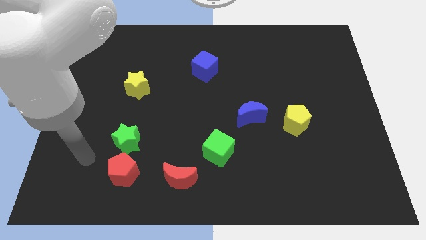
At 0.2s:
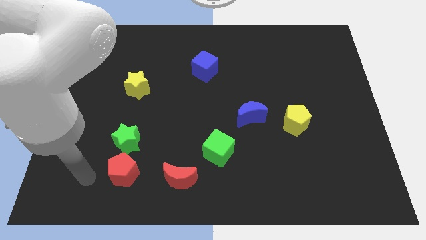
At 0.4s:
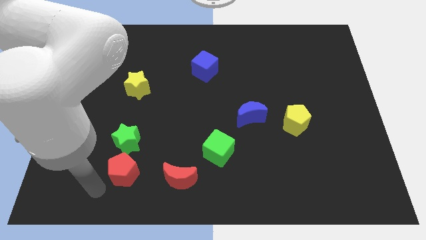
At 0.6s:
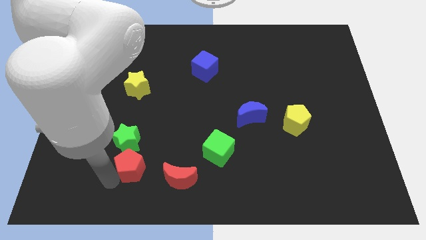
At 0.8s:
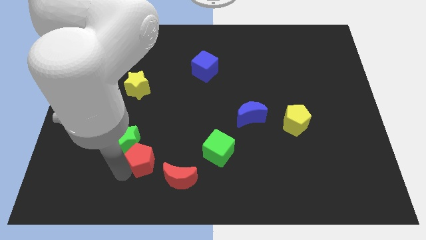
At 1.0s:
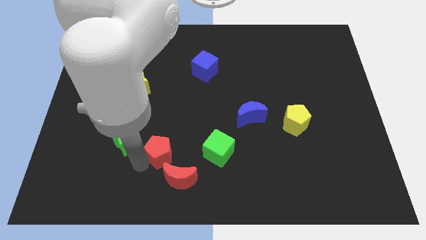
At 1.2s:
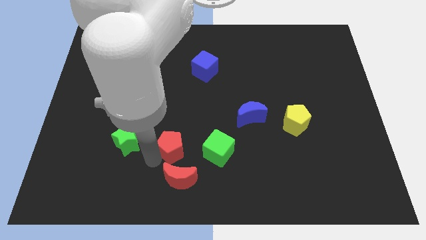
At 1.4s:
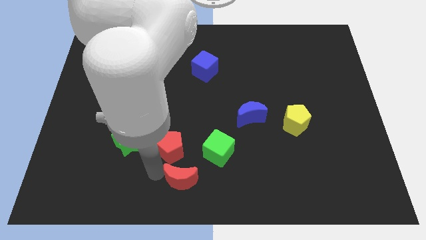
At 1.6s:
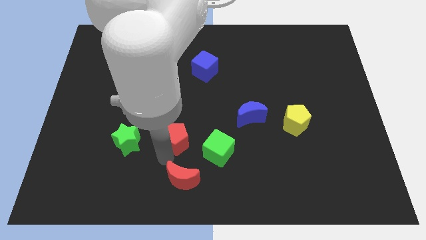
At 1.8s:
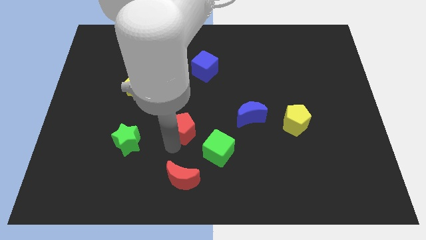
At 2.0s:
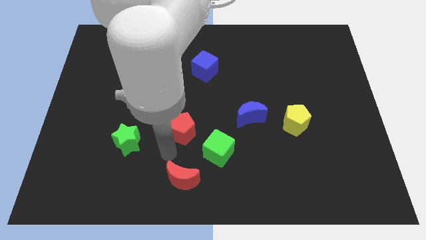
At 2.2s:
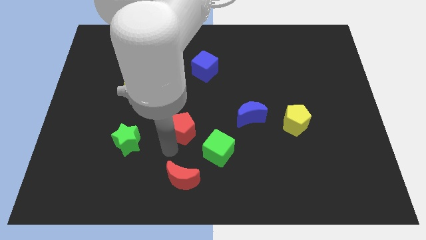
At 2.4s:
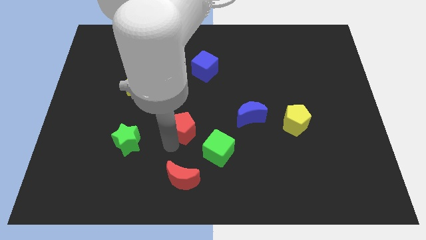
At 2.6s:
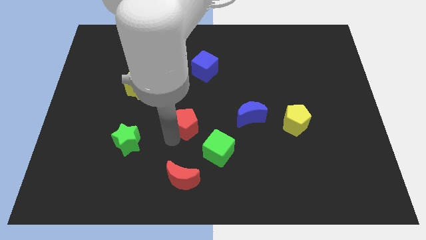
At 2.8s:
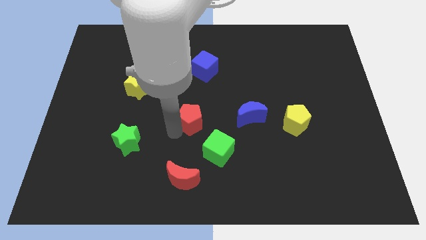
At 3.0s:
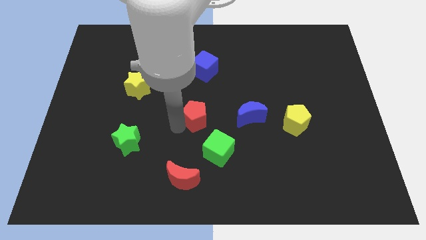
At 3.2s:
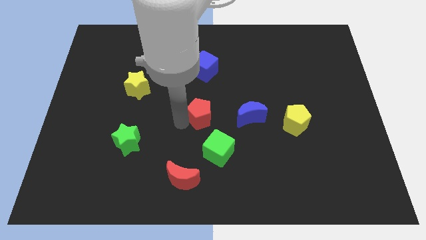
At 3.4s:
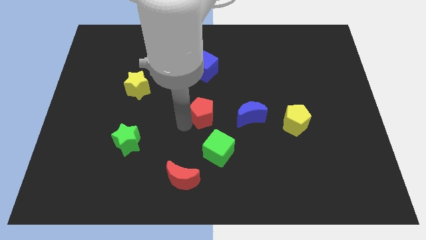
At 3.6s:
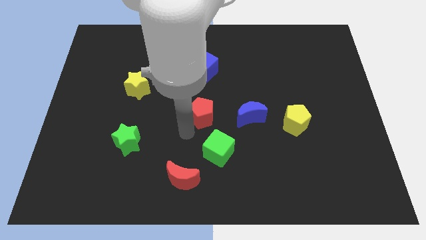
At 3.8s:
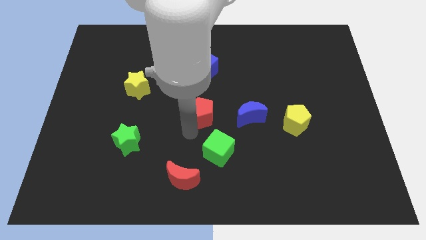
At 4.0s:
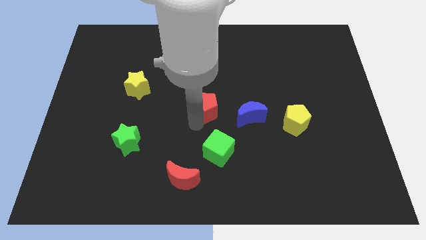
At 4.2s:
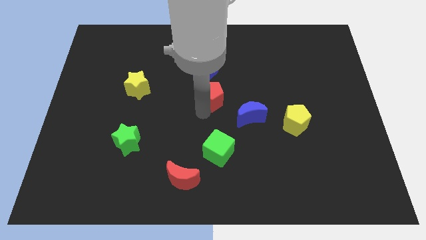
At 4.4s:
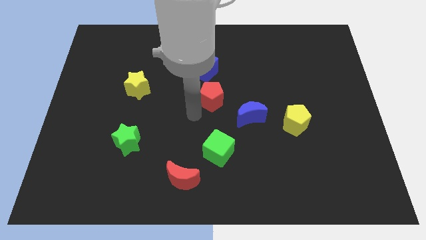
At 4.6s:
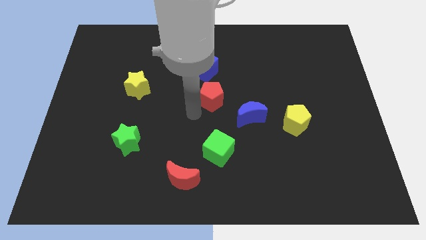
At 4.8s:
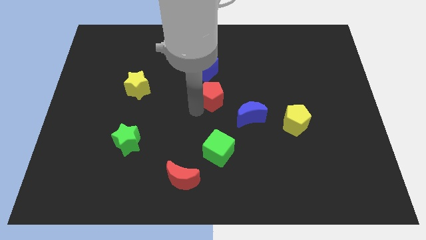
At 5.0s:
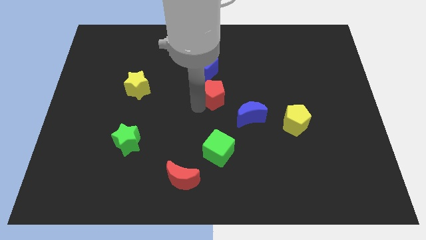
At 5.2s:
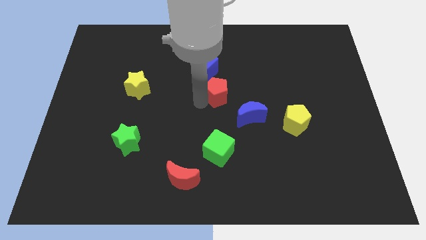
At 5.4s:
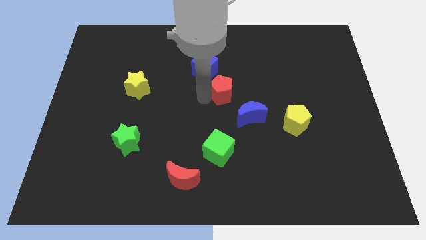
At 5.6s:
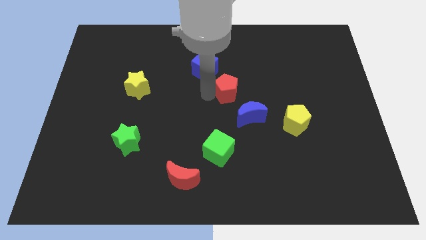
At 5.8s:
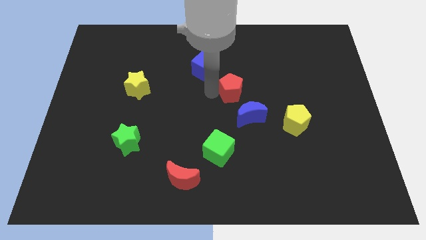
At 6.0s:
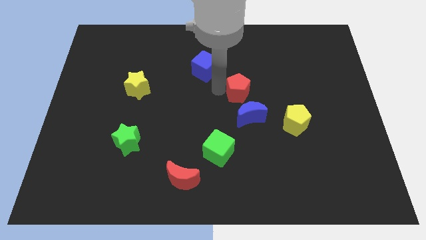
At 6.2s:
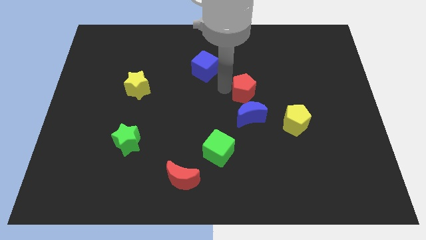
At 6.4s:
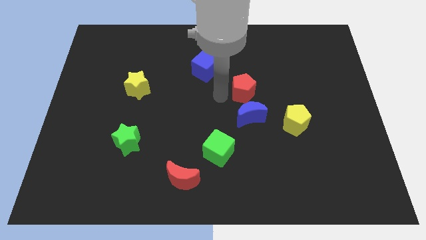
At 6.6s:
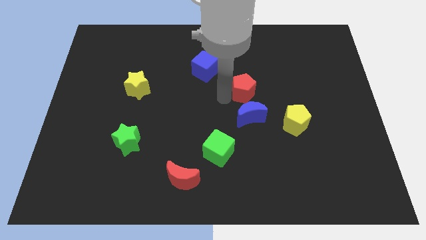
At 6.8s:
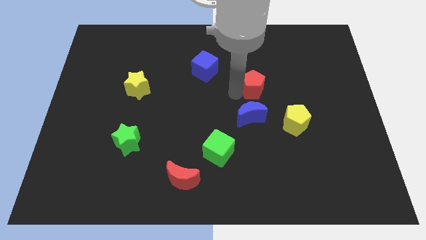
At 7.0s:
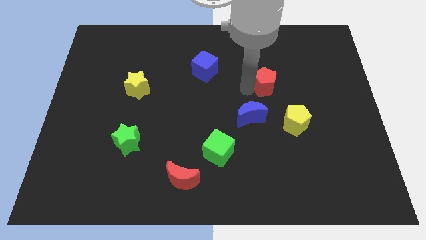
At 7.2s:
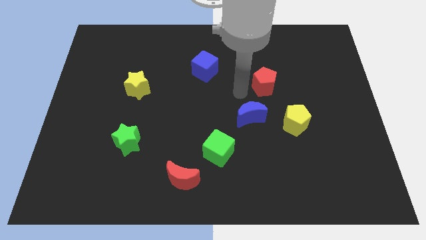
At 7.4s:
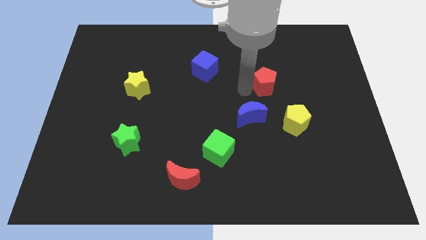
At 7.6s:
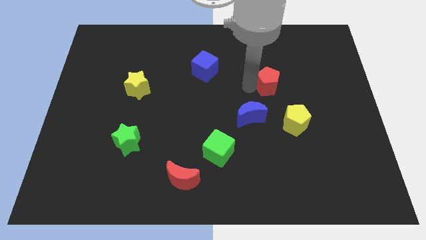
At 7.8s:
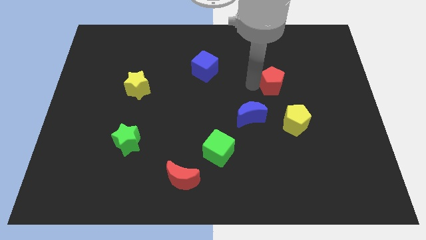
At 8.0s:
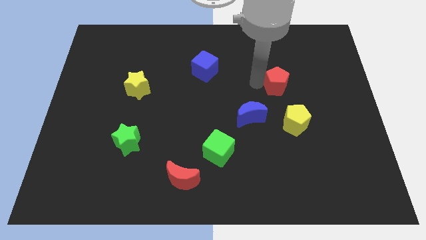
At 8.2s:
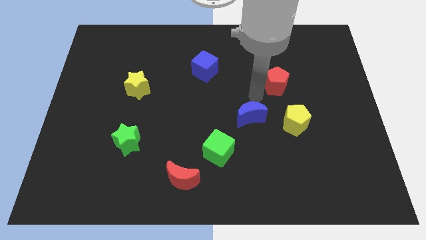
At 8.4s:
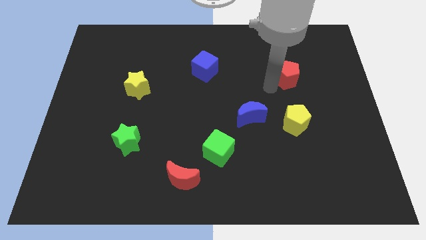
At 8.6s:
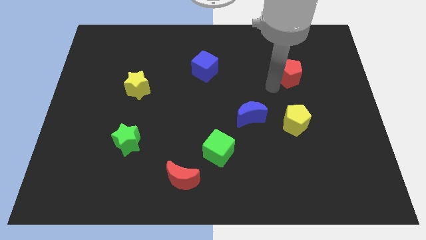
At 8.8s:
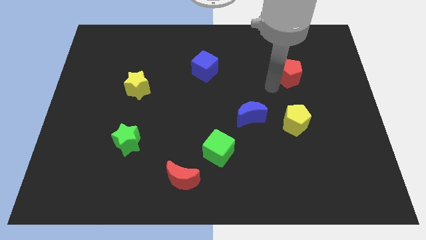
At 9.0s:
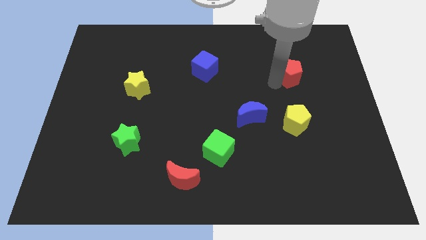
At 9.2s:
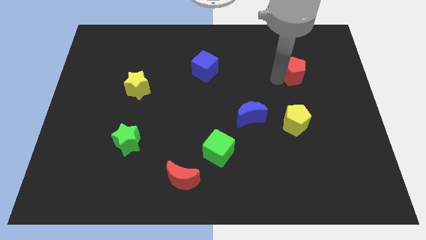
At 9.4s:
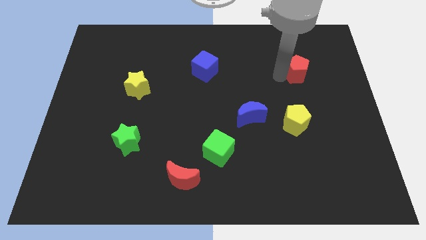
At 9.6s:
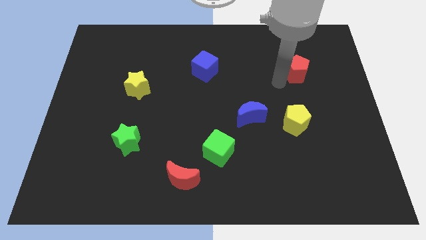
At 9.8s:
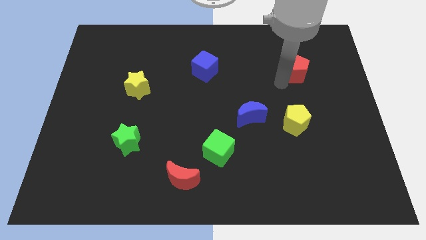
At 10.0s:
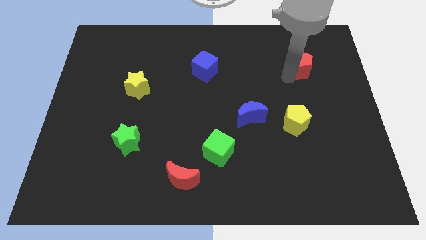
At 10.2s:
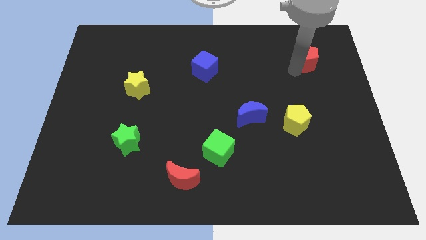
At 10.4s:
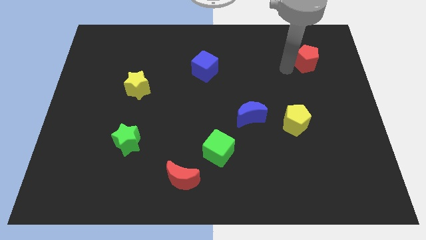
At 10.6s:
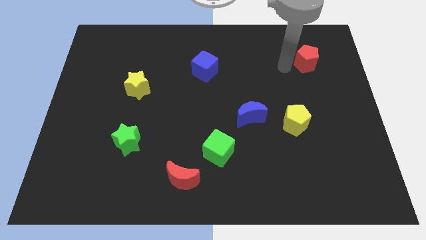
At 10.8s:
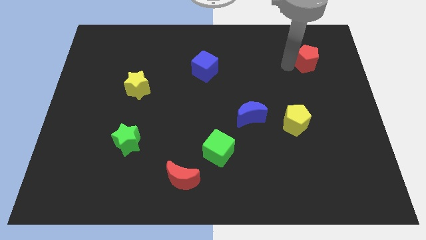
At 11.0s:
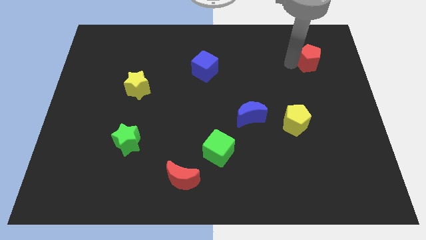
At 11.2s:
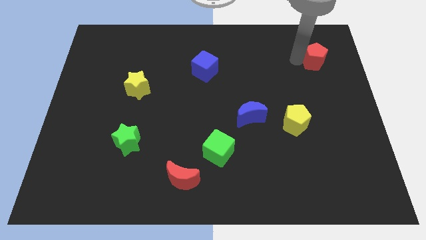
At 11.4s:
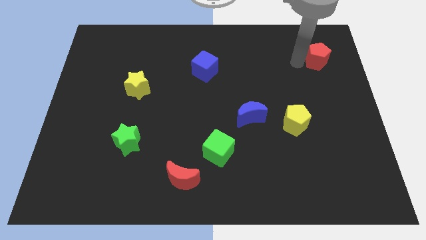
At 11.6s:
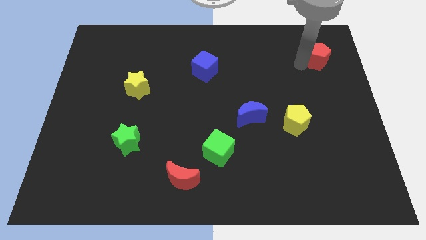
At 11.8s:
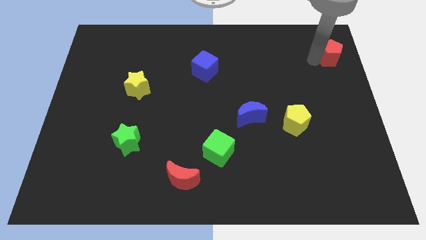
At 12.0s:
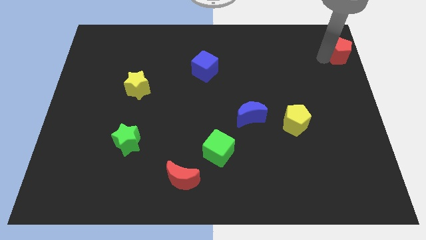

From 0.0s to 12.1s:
put the red pentagon to the upper right corner

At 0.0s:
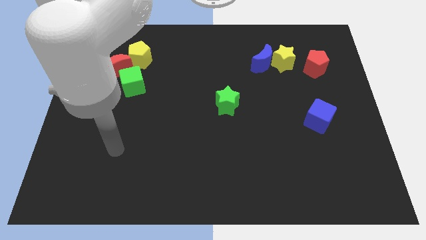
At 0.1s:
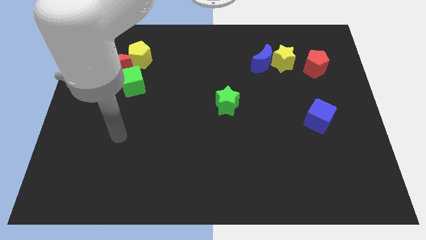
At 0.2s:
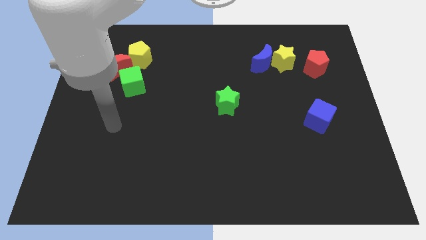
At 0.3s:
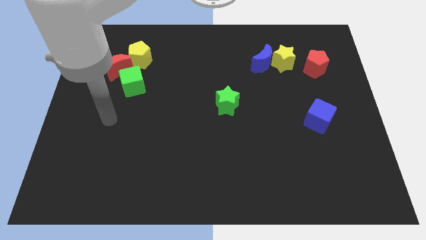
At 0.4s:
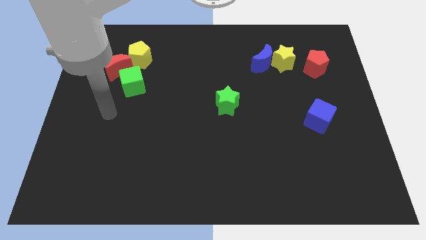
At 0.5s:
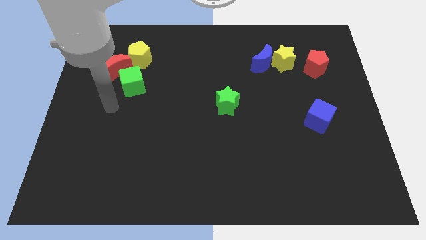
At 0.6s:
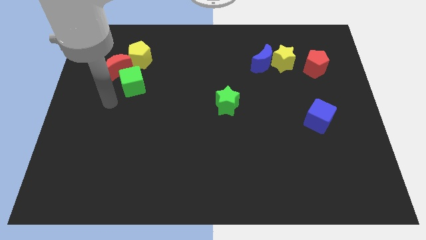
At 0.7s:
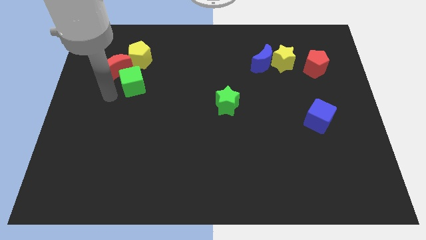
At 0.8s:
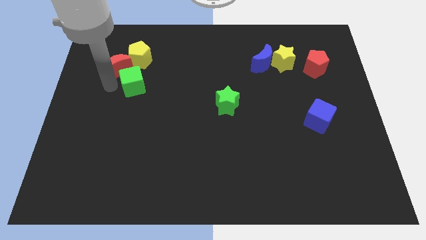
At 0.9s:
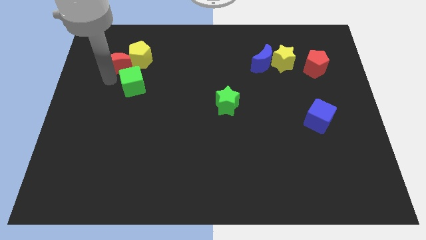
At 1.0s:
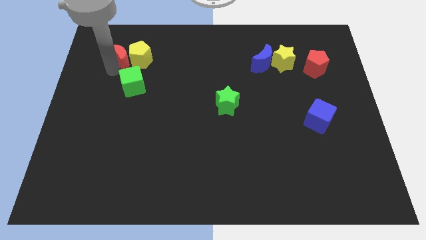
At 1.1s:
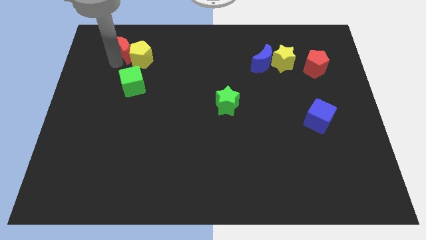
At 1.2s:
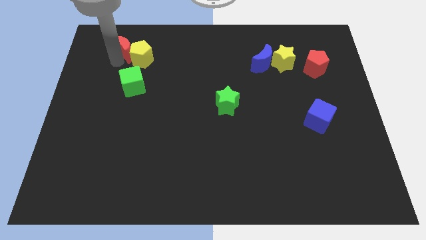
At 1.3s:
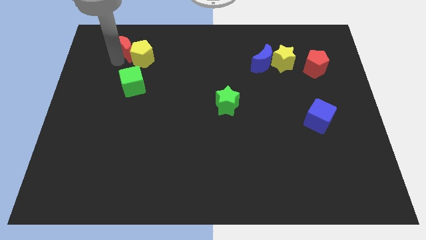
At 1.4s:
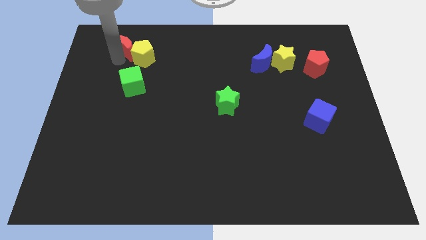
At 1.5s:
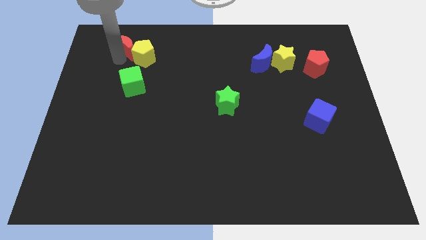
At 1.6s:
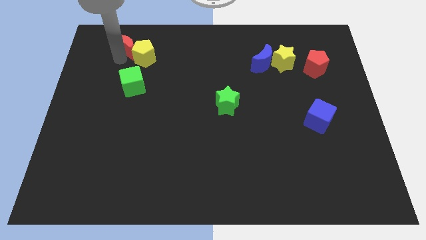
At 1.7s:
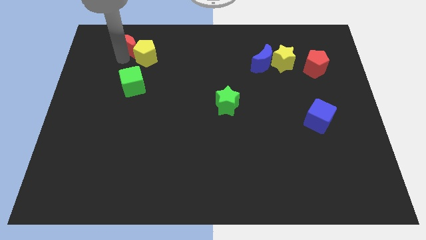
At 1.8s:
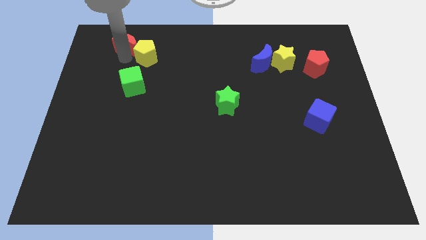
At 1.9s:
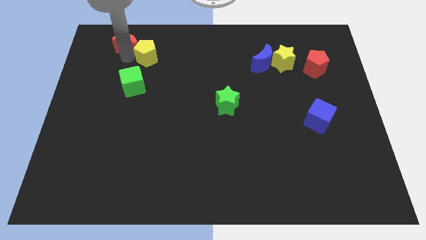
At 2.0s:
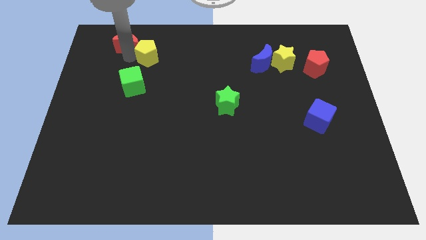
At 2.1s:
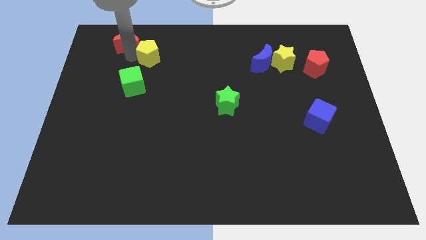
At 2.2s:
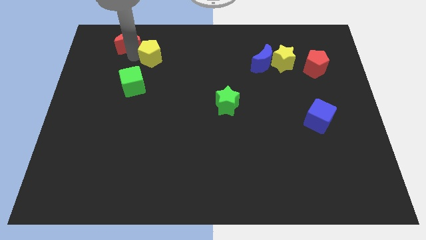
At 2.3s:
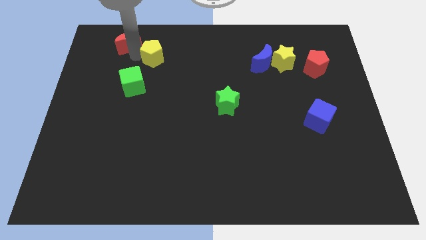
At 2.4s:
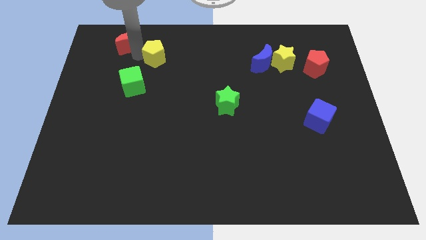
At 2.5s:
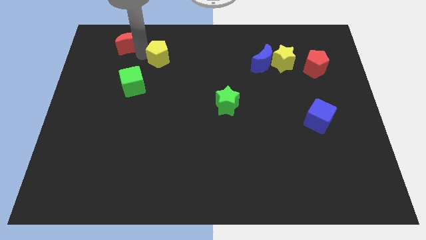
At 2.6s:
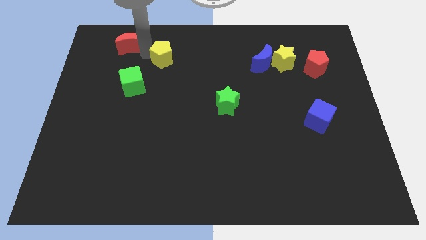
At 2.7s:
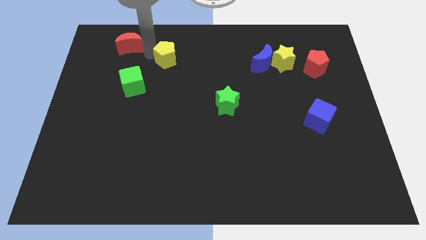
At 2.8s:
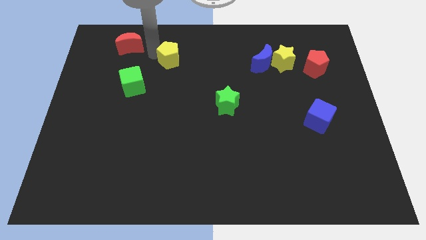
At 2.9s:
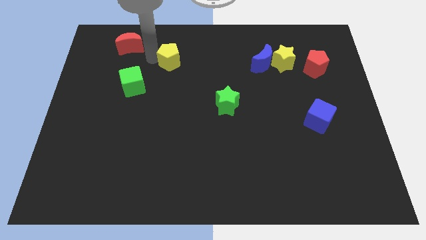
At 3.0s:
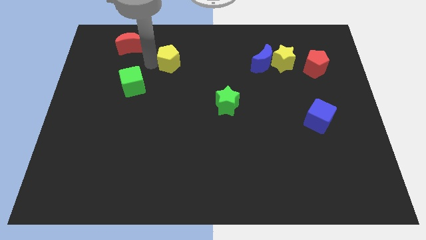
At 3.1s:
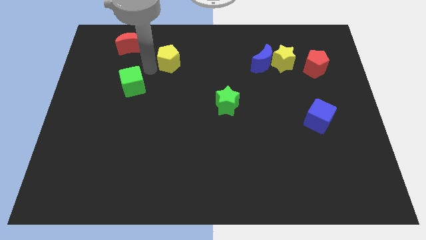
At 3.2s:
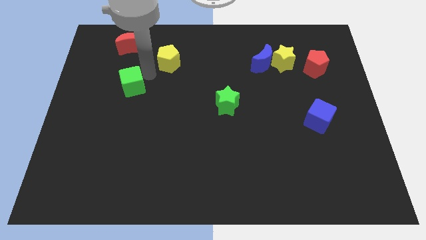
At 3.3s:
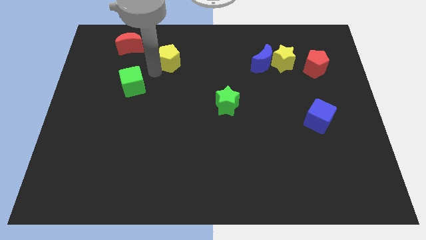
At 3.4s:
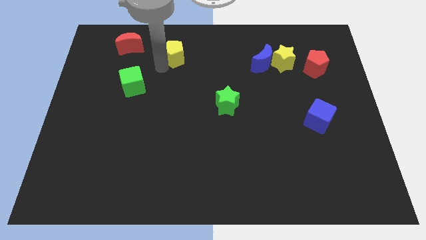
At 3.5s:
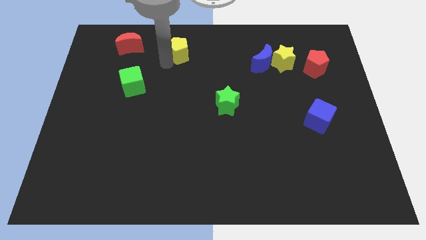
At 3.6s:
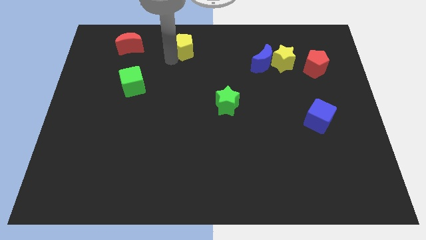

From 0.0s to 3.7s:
put the yellow pentagon to the top
